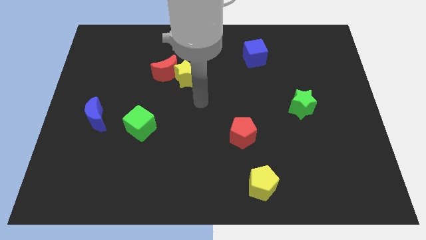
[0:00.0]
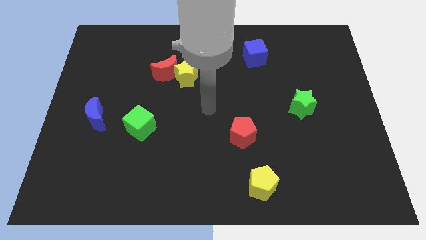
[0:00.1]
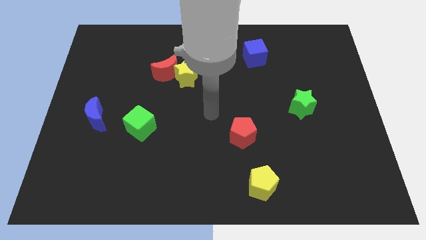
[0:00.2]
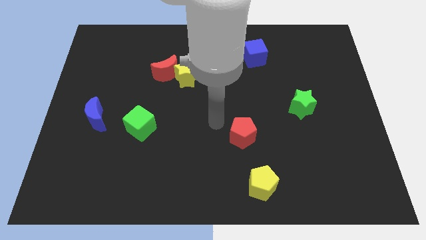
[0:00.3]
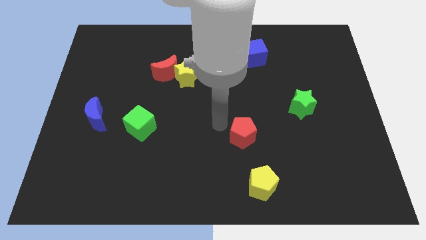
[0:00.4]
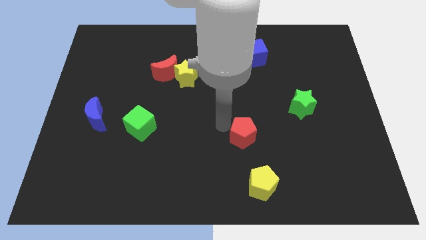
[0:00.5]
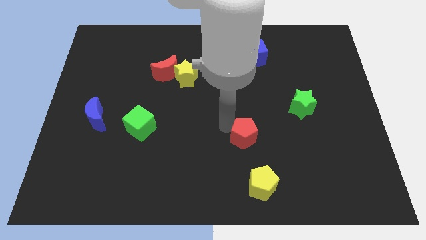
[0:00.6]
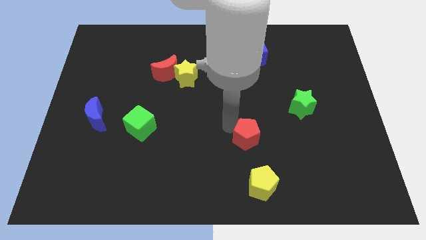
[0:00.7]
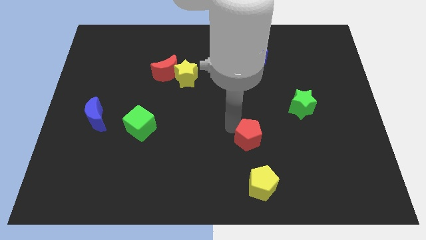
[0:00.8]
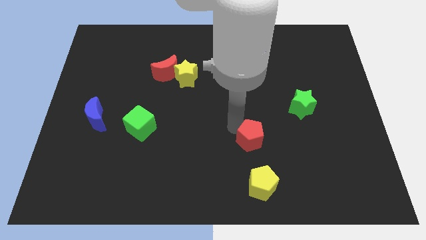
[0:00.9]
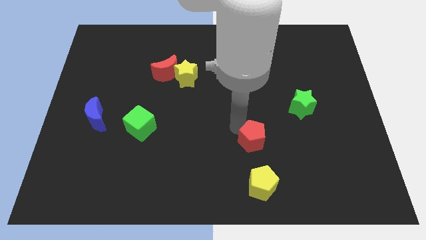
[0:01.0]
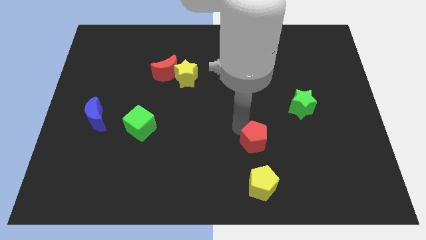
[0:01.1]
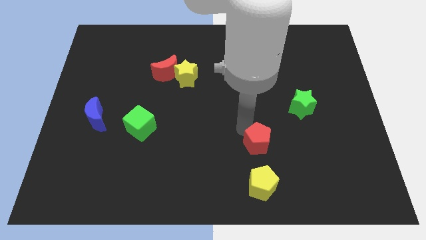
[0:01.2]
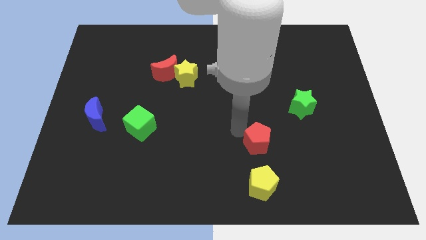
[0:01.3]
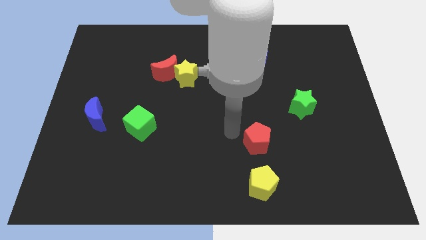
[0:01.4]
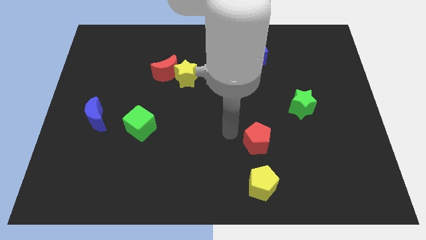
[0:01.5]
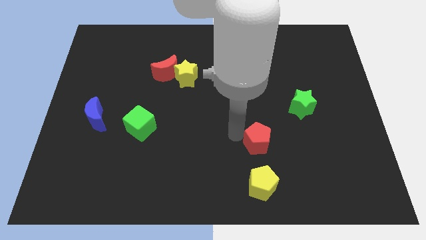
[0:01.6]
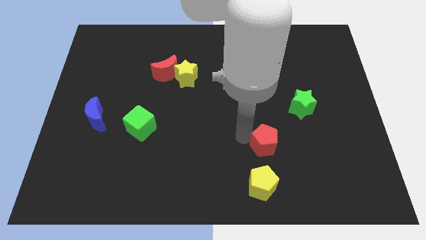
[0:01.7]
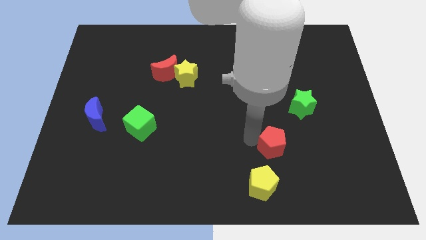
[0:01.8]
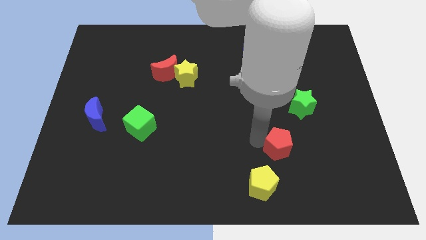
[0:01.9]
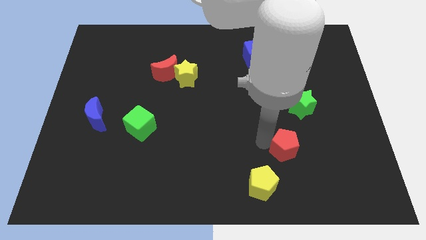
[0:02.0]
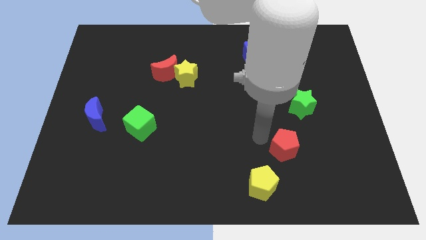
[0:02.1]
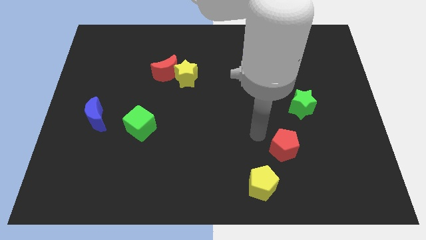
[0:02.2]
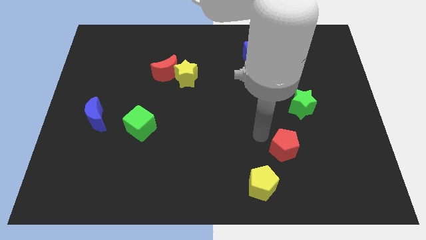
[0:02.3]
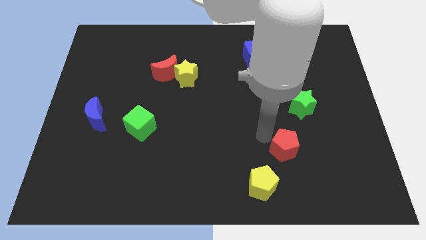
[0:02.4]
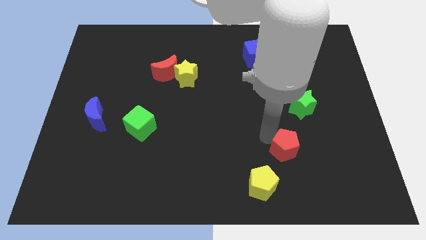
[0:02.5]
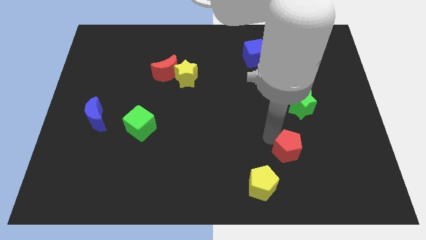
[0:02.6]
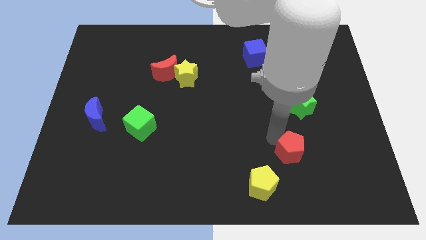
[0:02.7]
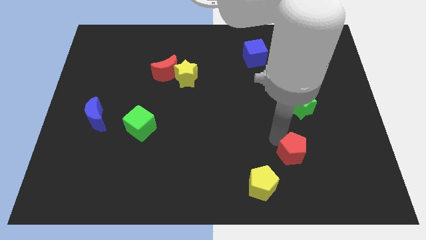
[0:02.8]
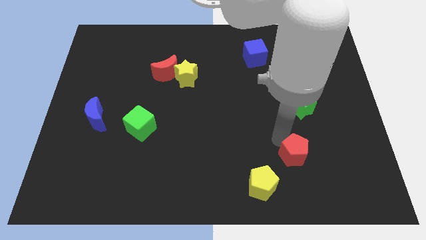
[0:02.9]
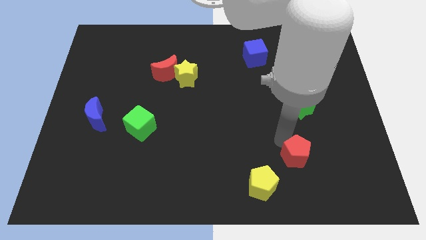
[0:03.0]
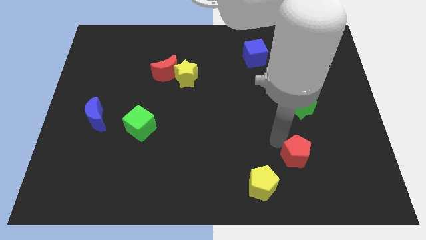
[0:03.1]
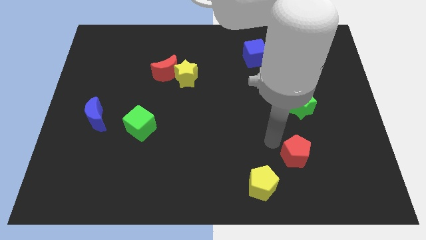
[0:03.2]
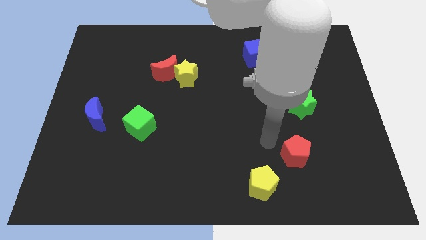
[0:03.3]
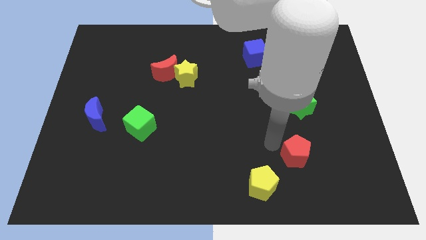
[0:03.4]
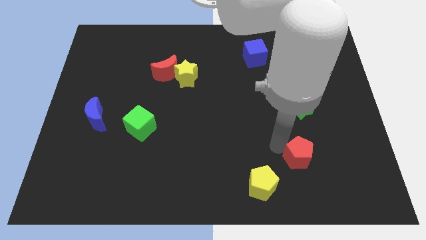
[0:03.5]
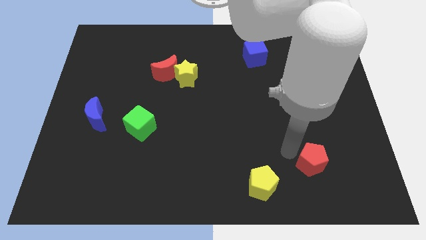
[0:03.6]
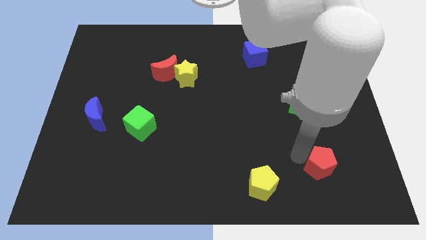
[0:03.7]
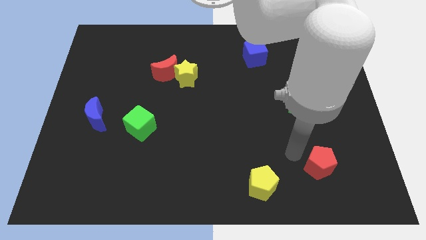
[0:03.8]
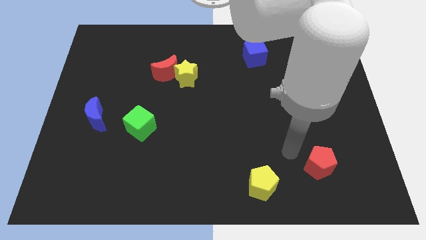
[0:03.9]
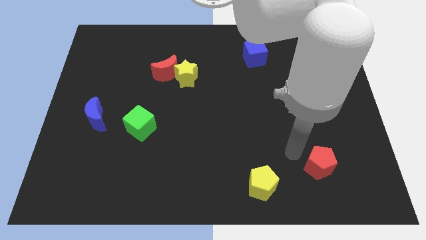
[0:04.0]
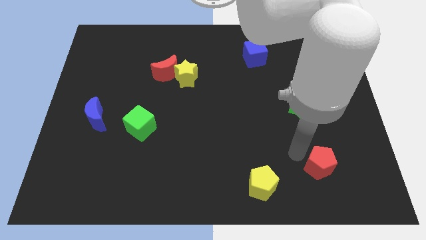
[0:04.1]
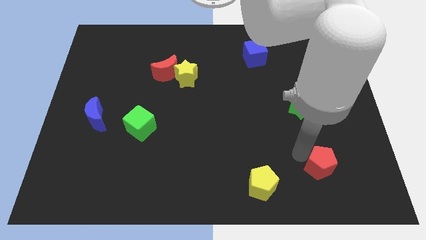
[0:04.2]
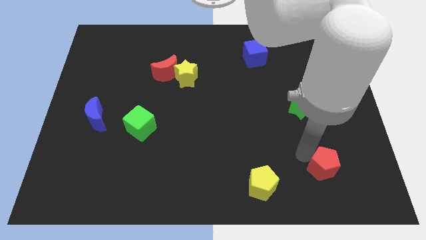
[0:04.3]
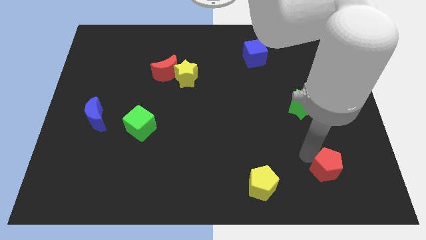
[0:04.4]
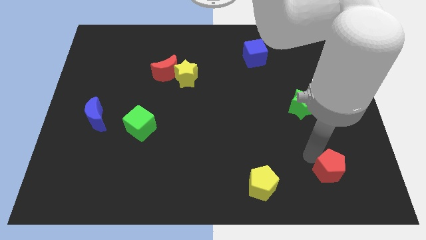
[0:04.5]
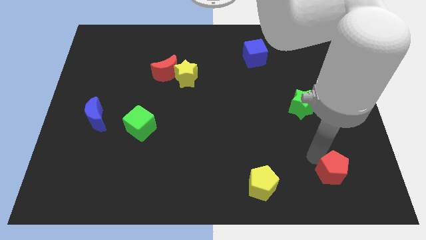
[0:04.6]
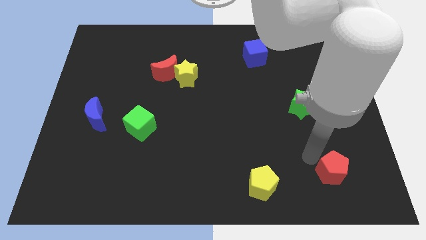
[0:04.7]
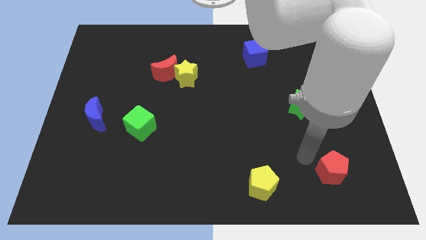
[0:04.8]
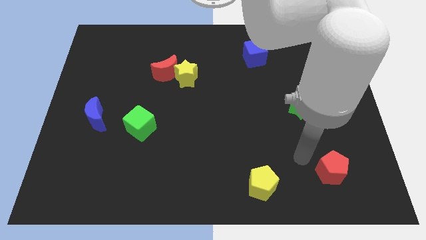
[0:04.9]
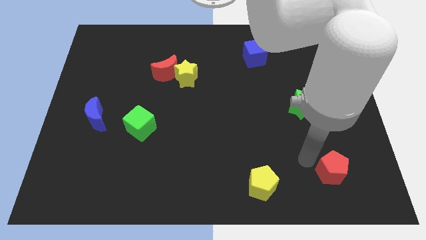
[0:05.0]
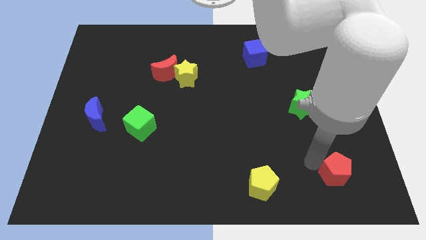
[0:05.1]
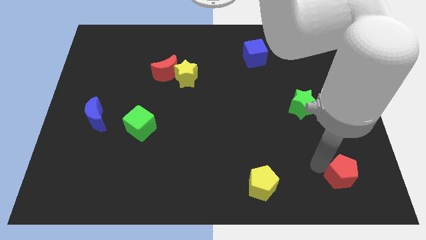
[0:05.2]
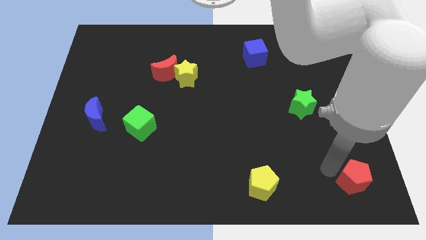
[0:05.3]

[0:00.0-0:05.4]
push the red pentagon to the lower right corner

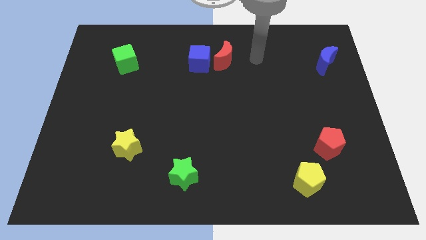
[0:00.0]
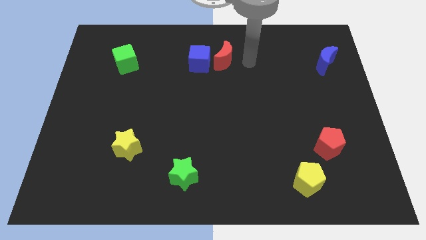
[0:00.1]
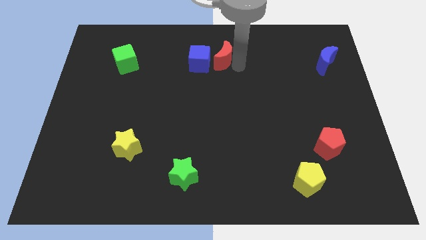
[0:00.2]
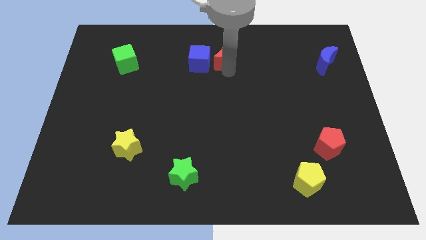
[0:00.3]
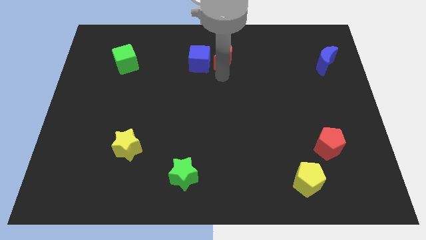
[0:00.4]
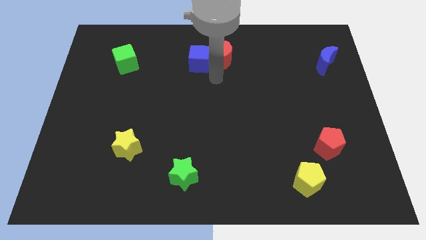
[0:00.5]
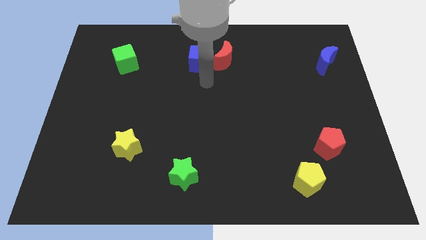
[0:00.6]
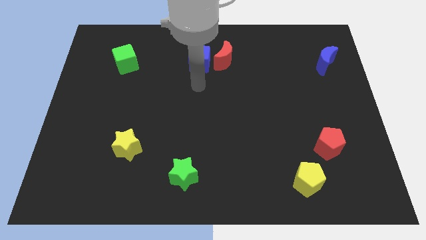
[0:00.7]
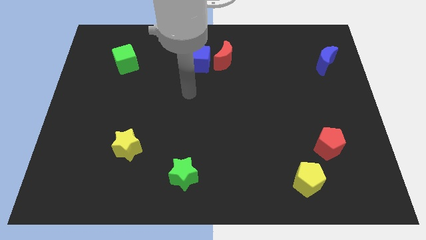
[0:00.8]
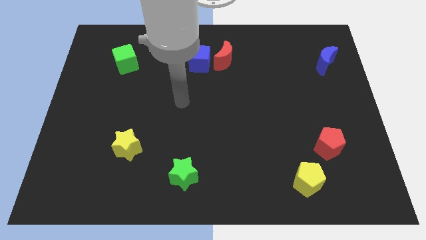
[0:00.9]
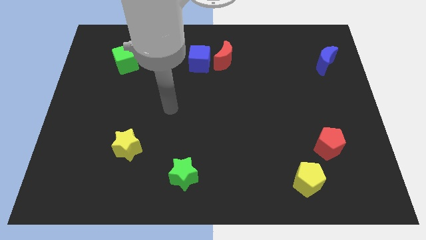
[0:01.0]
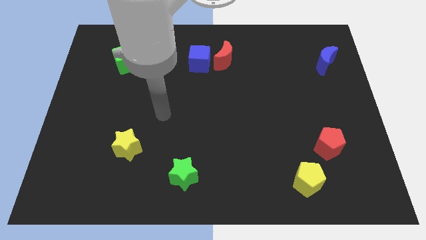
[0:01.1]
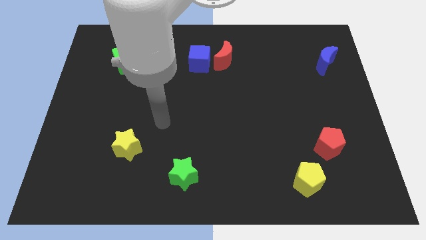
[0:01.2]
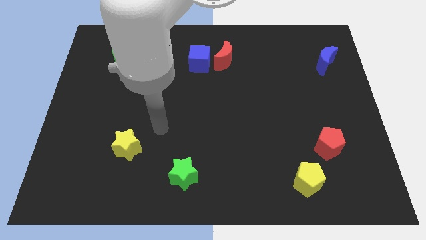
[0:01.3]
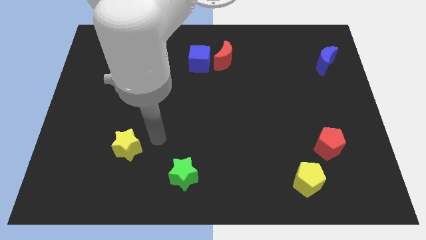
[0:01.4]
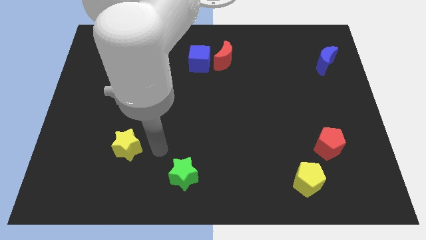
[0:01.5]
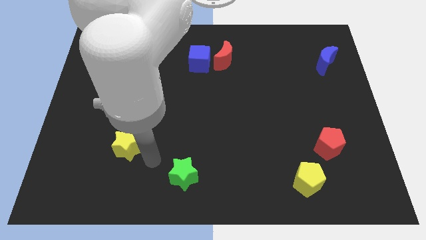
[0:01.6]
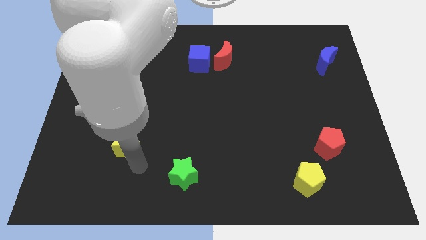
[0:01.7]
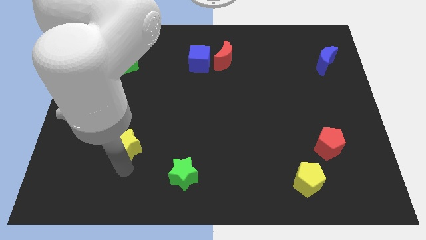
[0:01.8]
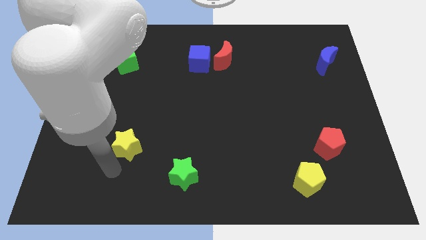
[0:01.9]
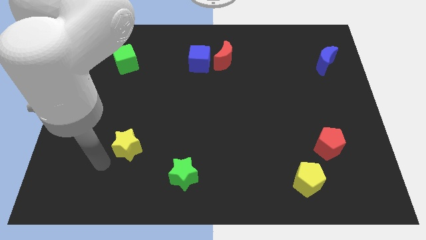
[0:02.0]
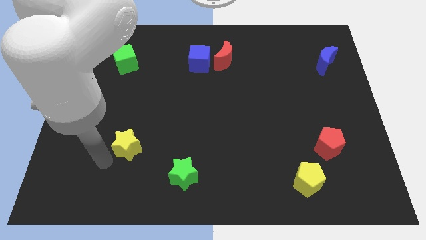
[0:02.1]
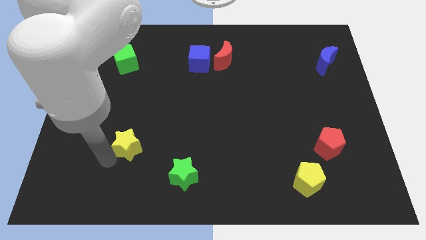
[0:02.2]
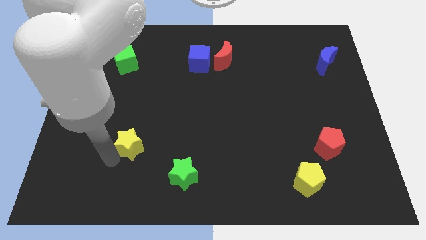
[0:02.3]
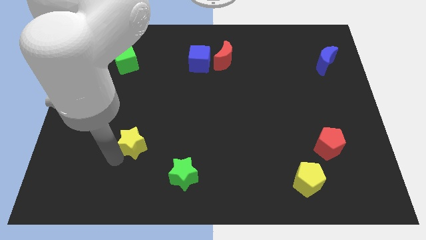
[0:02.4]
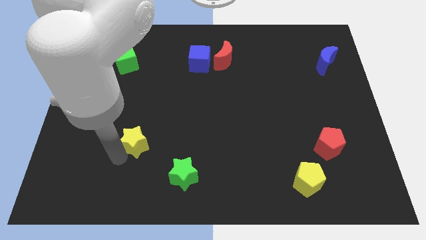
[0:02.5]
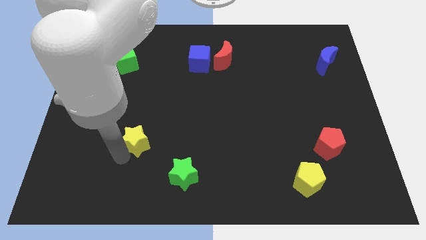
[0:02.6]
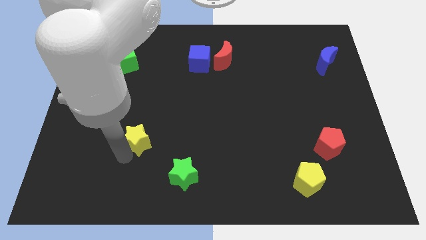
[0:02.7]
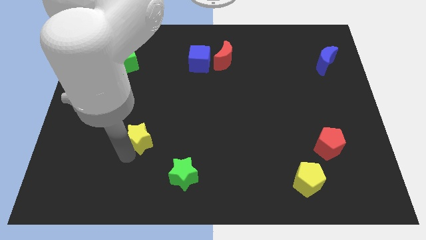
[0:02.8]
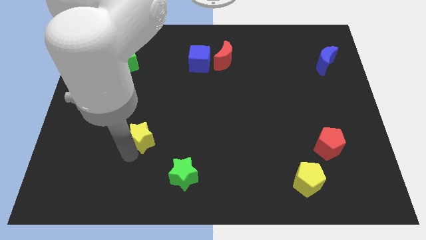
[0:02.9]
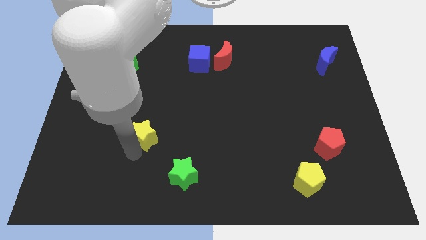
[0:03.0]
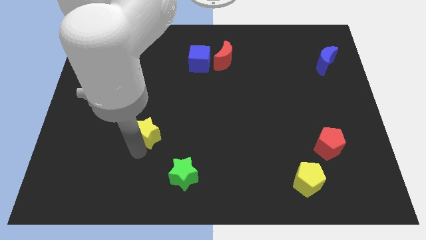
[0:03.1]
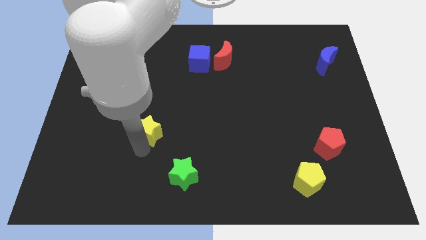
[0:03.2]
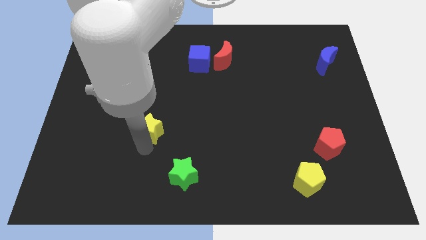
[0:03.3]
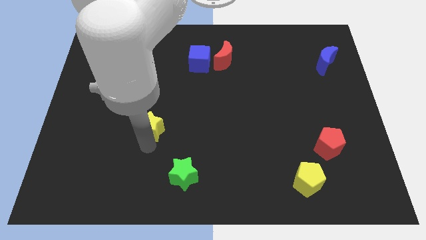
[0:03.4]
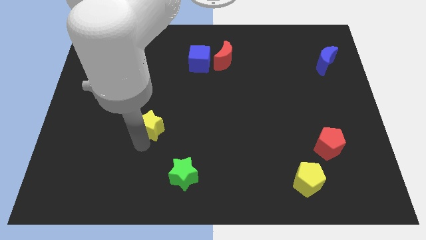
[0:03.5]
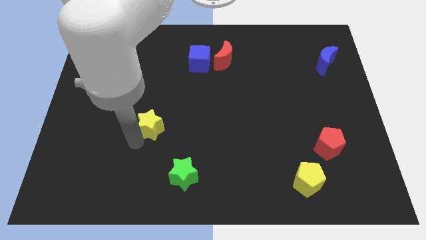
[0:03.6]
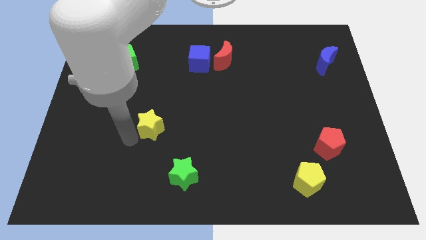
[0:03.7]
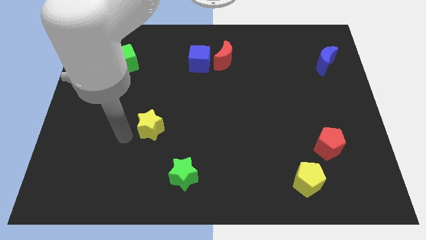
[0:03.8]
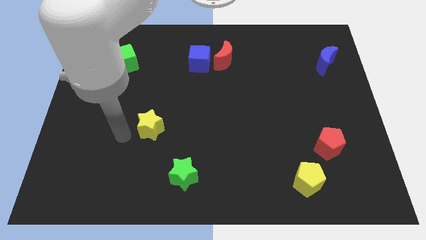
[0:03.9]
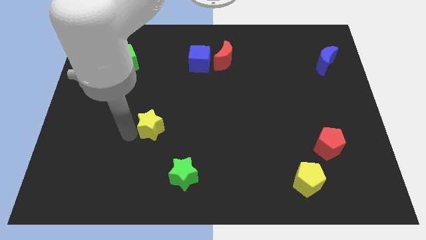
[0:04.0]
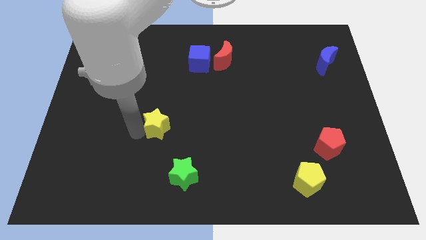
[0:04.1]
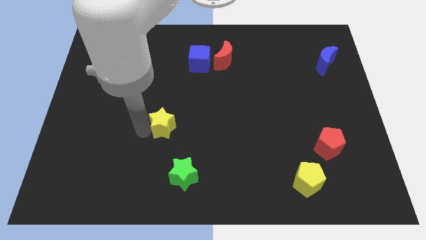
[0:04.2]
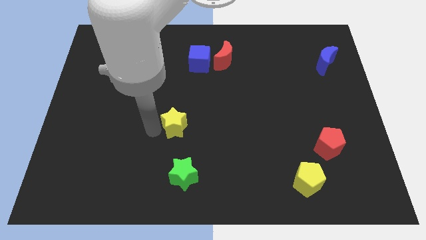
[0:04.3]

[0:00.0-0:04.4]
push the yellow star to the middle of the board
